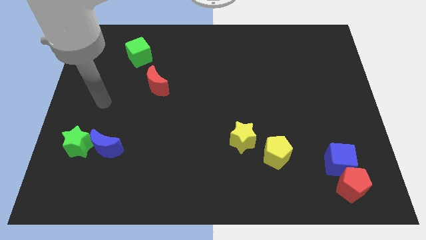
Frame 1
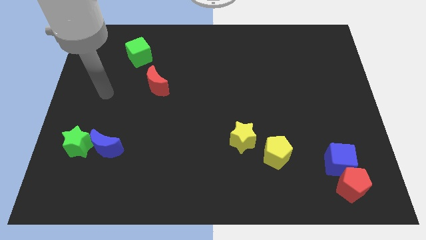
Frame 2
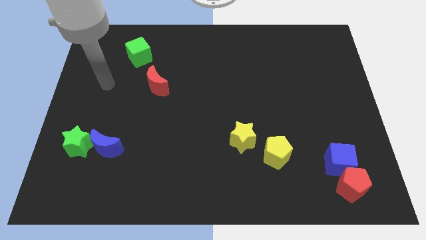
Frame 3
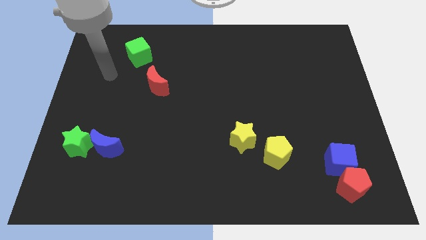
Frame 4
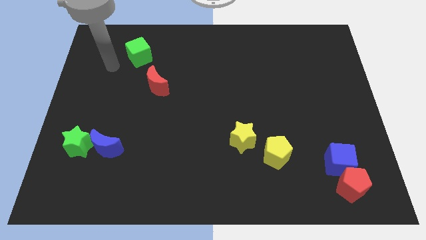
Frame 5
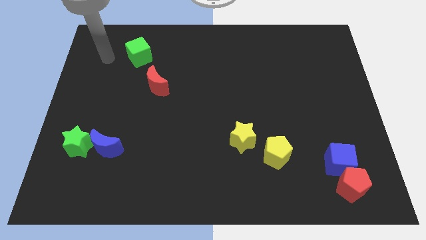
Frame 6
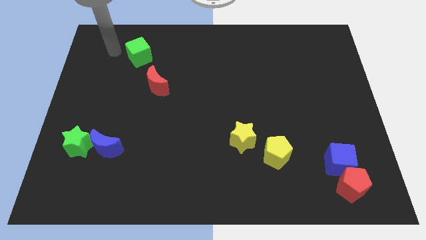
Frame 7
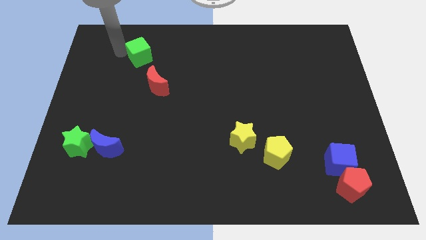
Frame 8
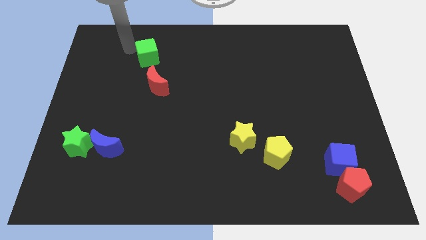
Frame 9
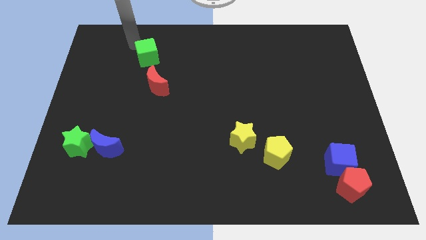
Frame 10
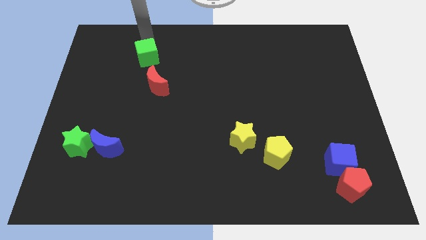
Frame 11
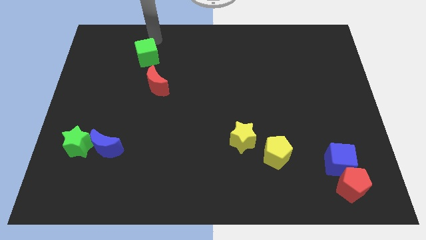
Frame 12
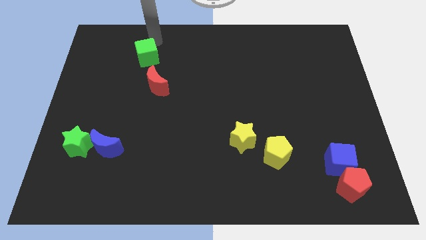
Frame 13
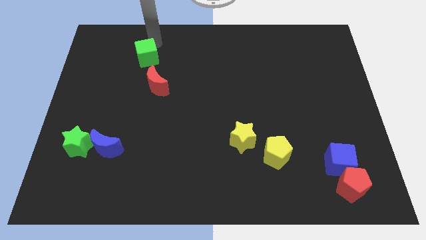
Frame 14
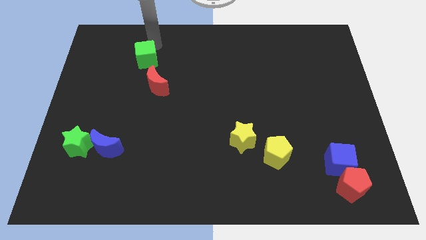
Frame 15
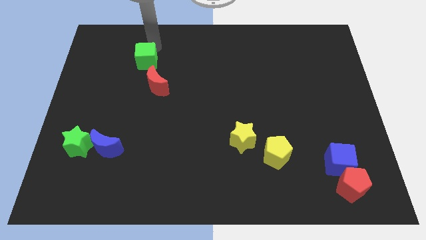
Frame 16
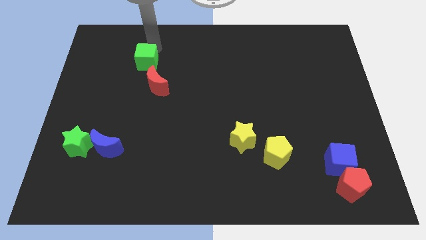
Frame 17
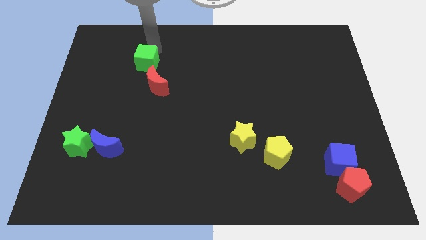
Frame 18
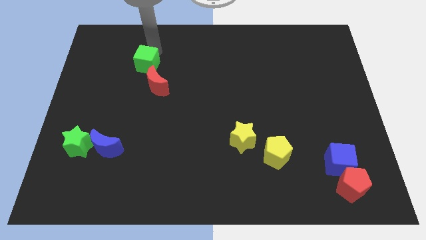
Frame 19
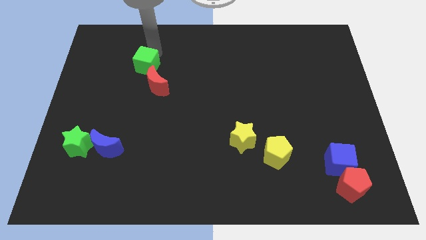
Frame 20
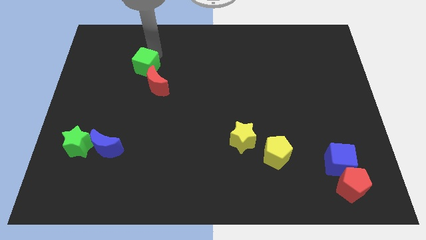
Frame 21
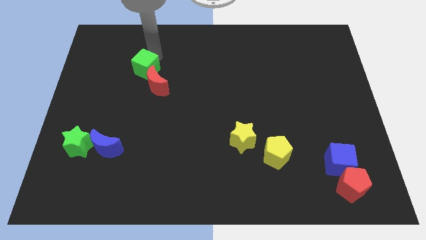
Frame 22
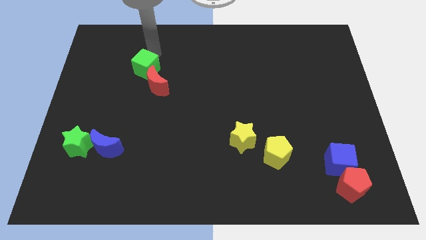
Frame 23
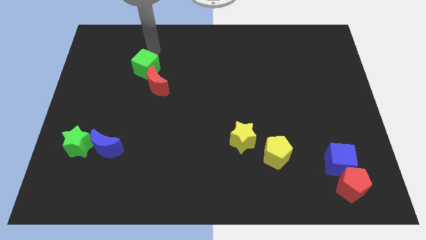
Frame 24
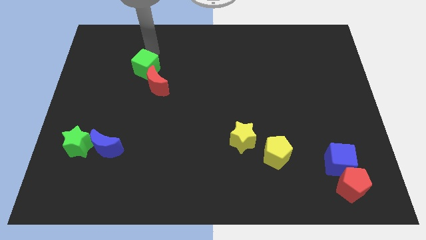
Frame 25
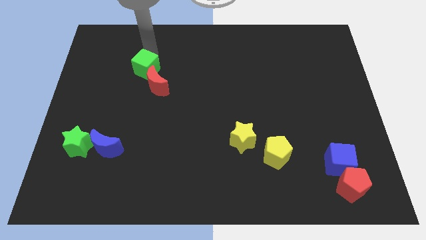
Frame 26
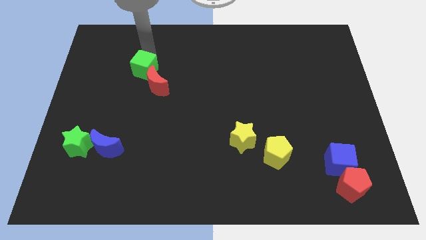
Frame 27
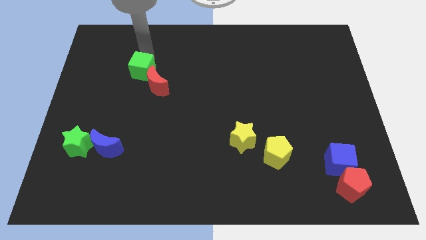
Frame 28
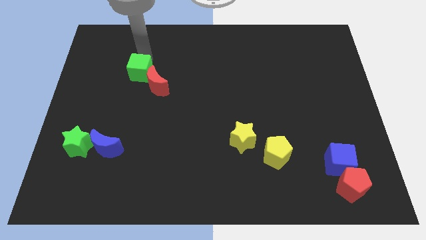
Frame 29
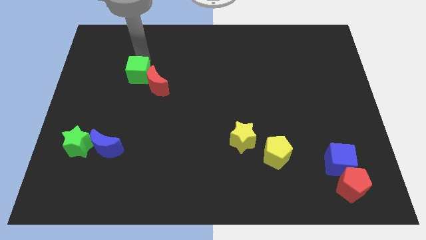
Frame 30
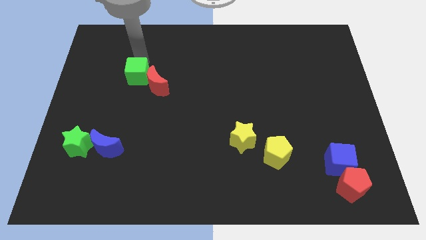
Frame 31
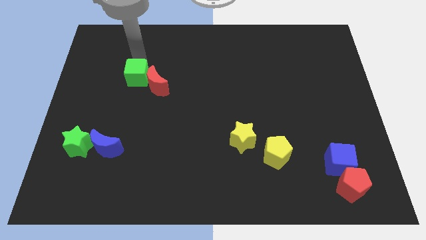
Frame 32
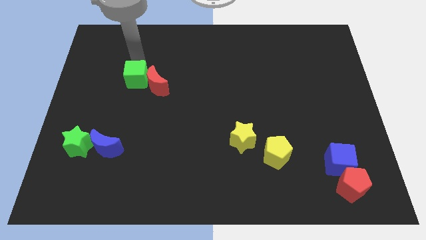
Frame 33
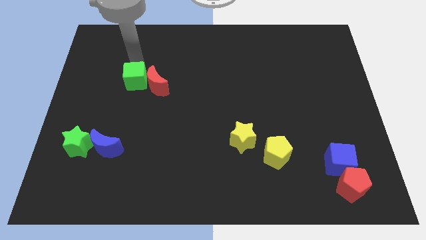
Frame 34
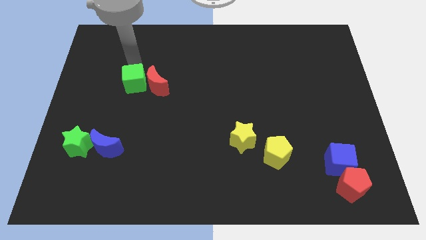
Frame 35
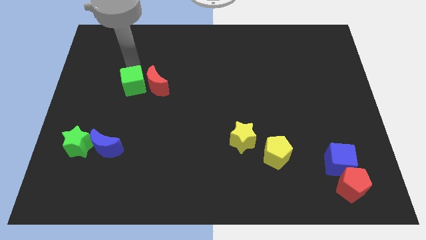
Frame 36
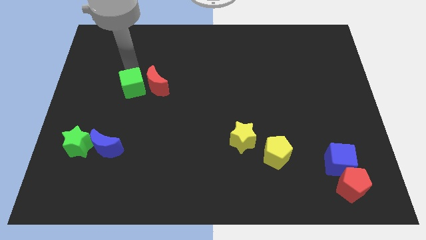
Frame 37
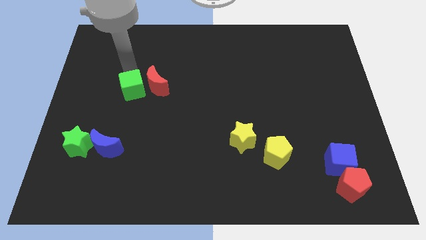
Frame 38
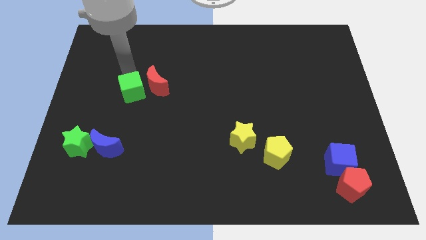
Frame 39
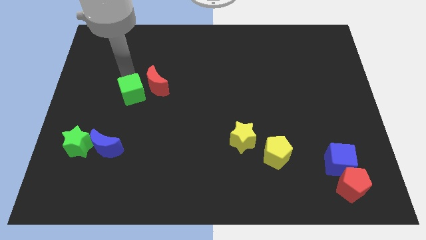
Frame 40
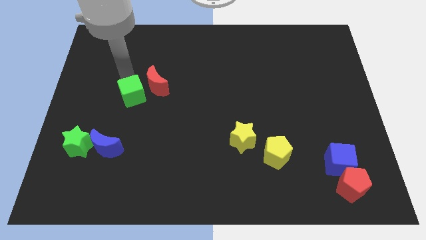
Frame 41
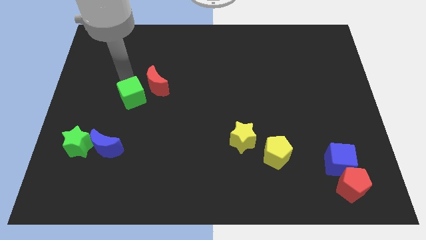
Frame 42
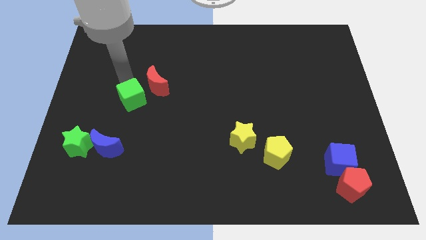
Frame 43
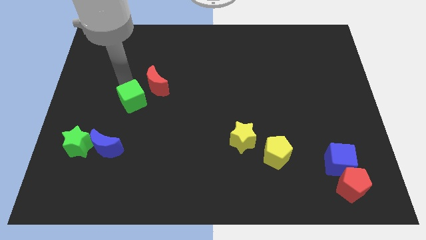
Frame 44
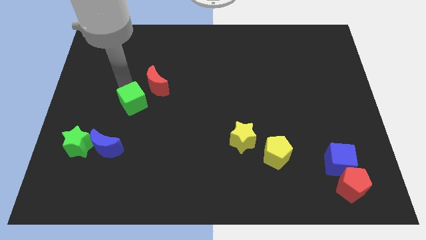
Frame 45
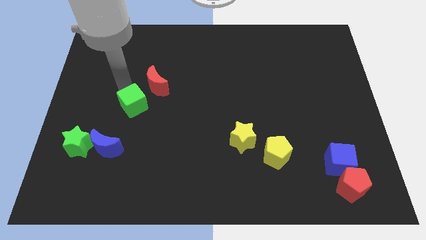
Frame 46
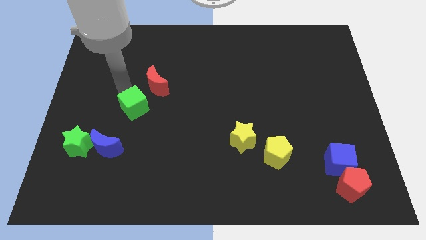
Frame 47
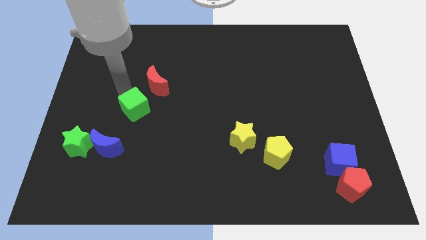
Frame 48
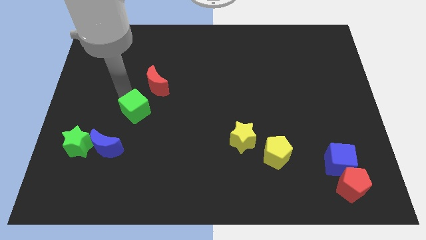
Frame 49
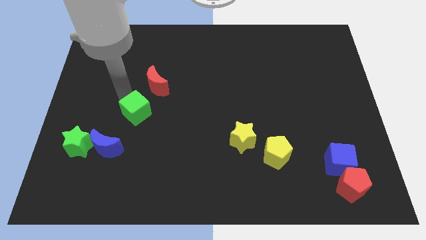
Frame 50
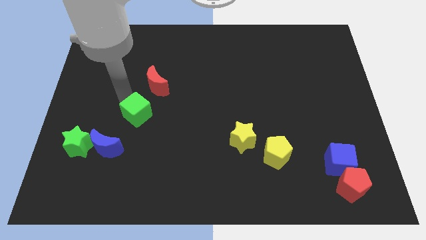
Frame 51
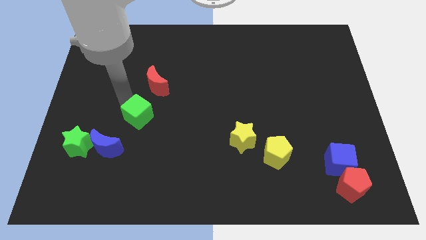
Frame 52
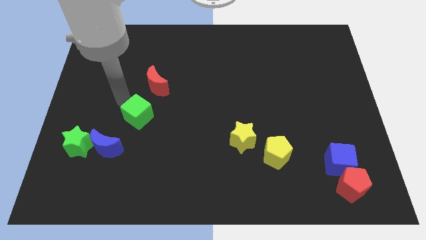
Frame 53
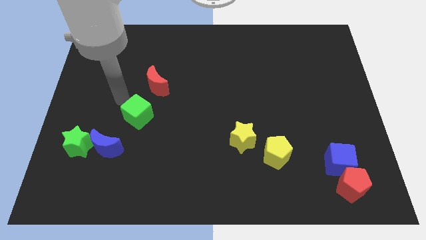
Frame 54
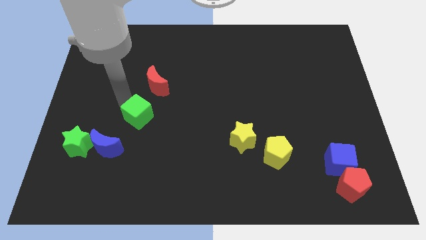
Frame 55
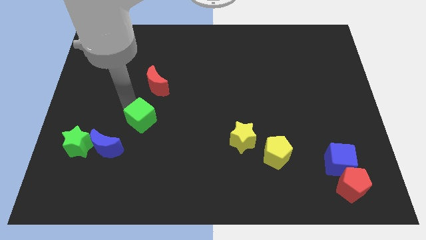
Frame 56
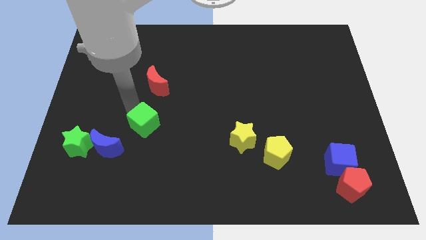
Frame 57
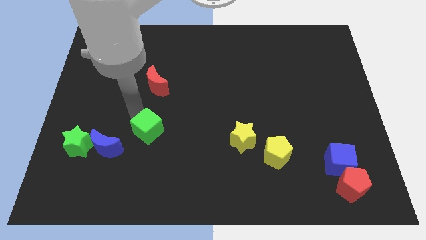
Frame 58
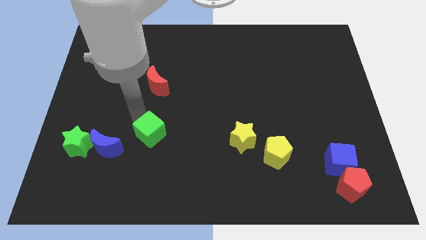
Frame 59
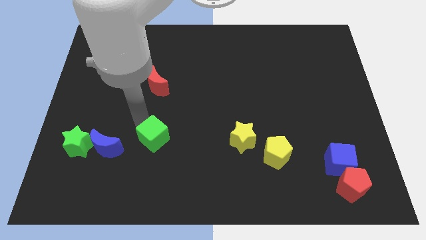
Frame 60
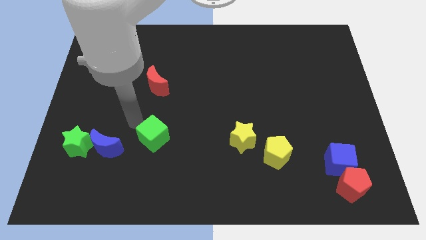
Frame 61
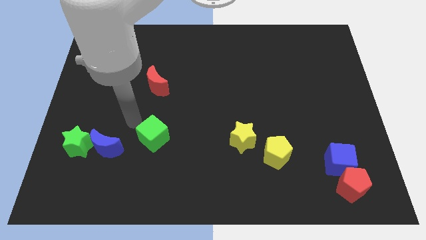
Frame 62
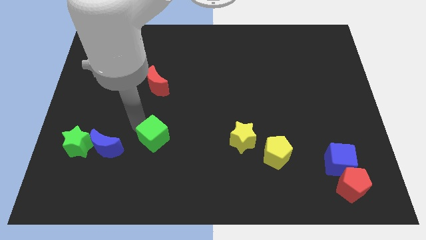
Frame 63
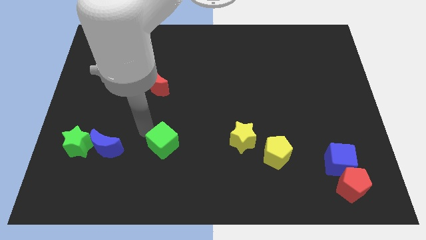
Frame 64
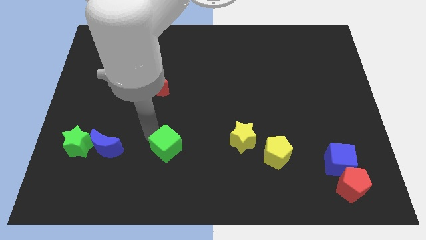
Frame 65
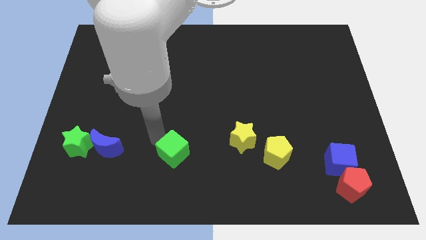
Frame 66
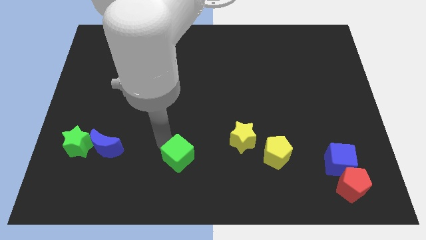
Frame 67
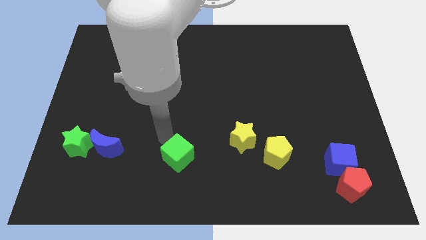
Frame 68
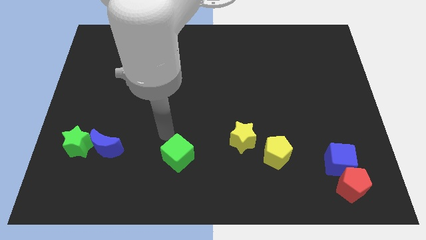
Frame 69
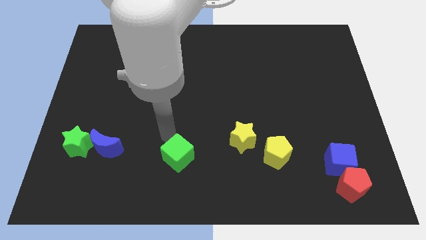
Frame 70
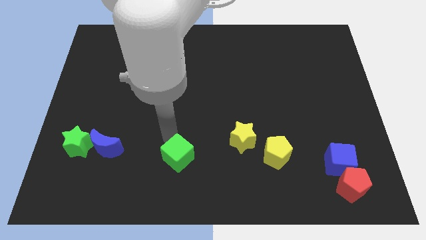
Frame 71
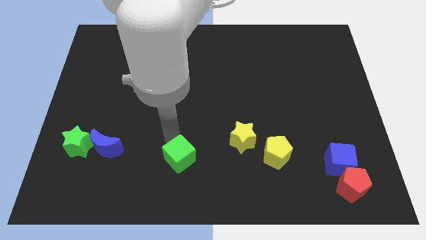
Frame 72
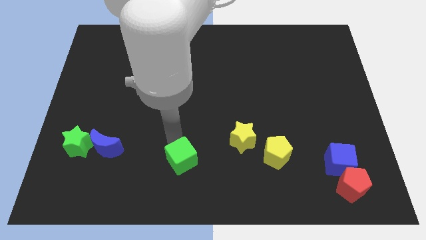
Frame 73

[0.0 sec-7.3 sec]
push the green cube to the bottom
